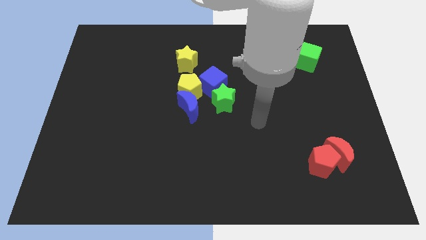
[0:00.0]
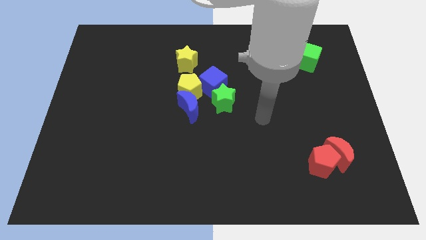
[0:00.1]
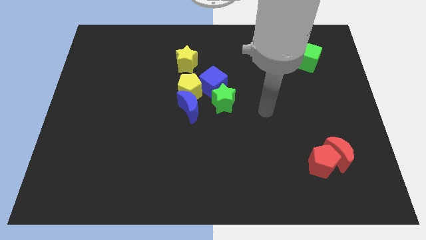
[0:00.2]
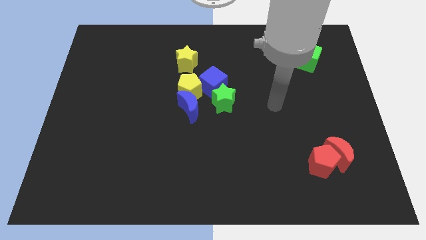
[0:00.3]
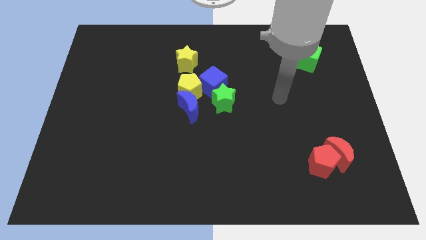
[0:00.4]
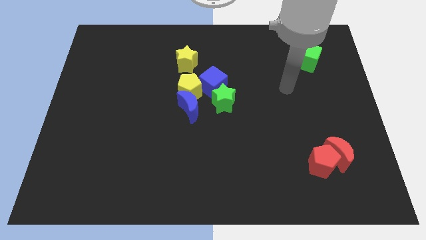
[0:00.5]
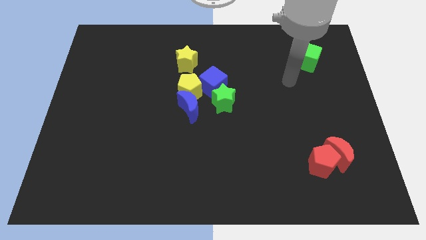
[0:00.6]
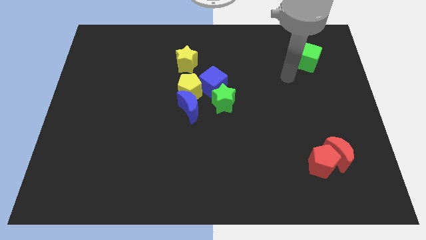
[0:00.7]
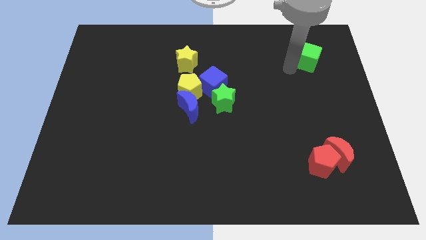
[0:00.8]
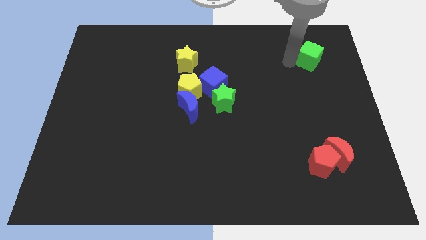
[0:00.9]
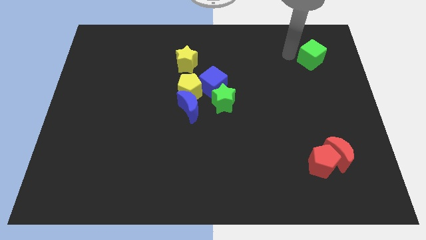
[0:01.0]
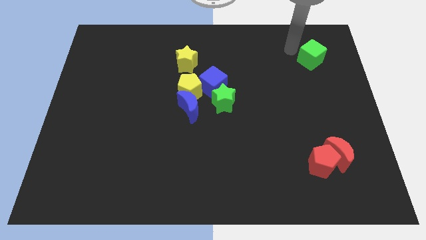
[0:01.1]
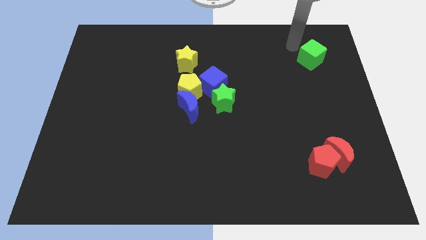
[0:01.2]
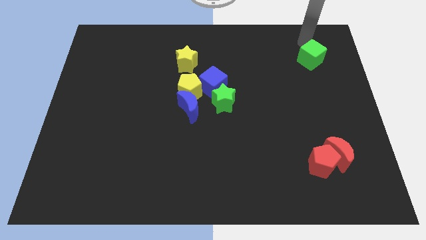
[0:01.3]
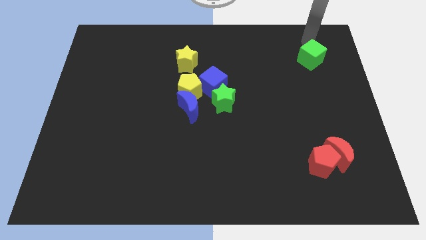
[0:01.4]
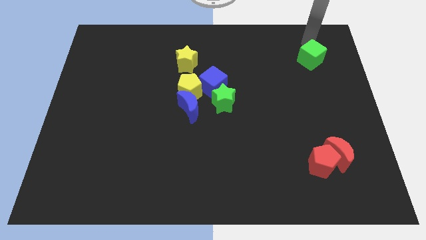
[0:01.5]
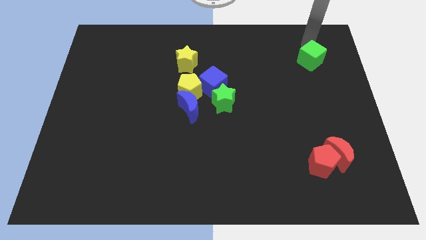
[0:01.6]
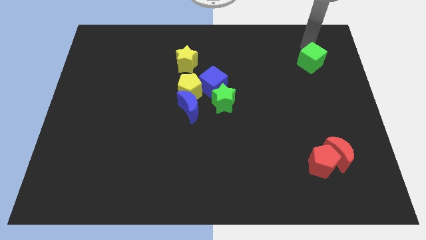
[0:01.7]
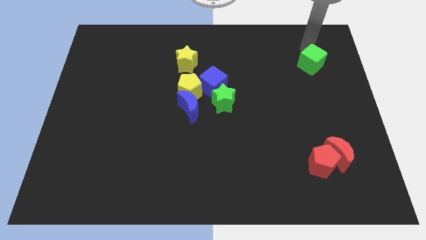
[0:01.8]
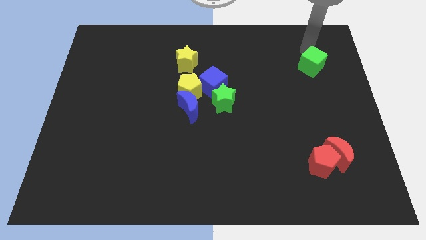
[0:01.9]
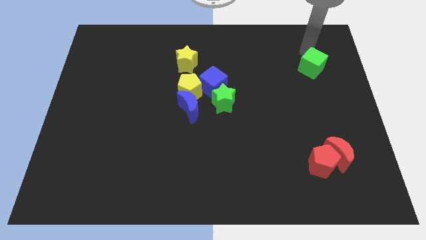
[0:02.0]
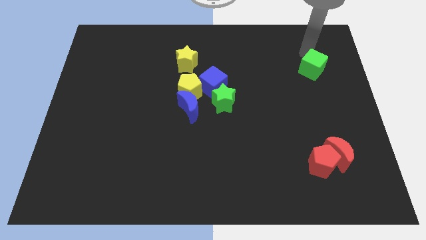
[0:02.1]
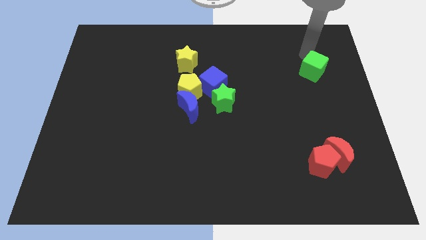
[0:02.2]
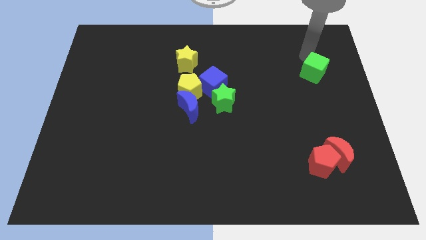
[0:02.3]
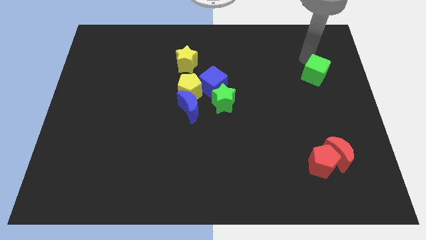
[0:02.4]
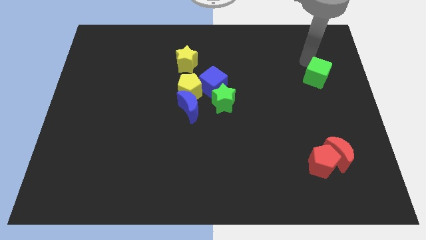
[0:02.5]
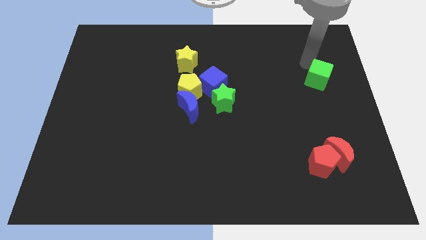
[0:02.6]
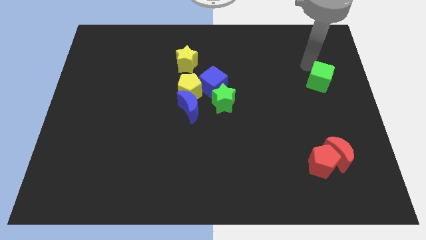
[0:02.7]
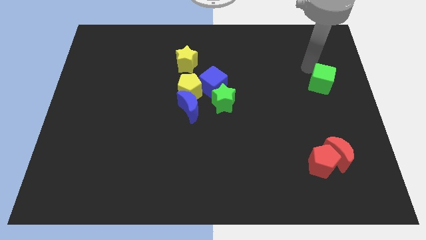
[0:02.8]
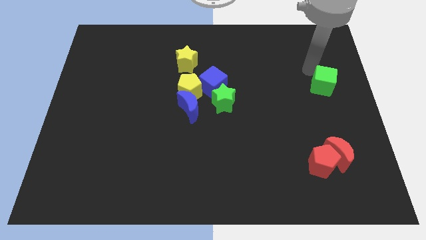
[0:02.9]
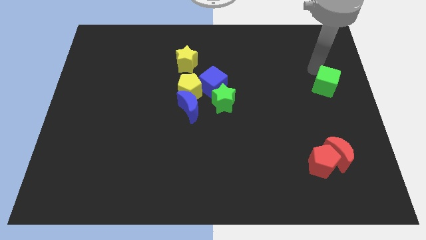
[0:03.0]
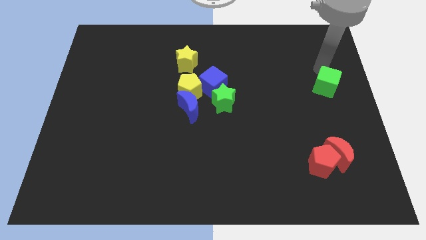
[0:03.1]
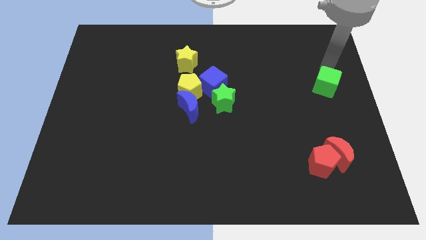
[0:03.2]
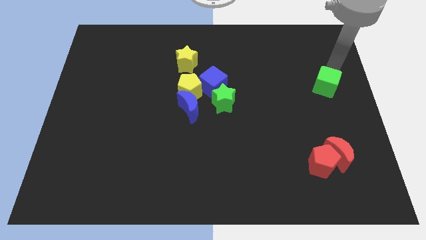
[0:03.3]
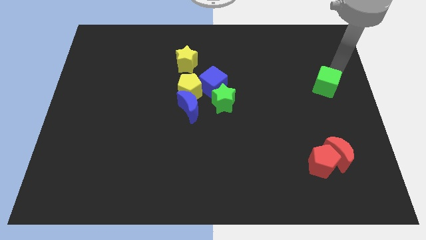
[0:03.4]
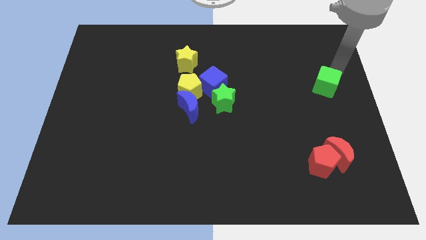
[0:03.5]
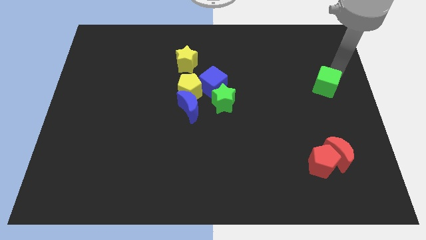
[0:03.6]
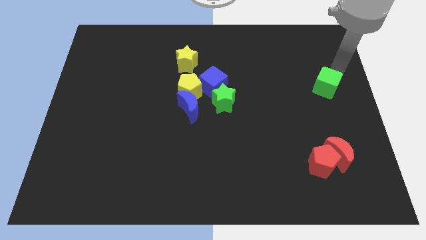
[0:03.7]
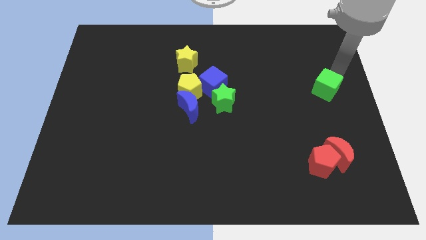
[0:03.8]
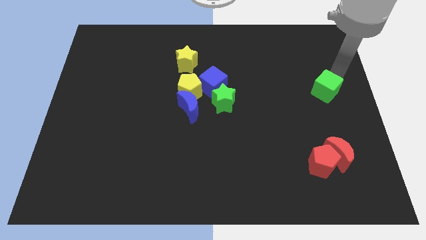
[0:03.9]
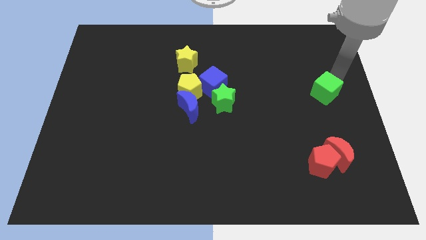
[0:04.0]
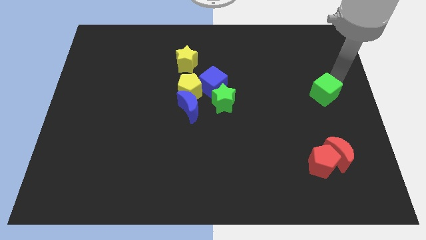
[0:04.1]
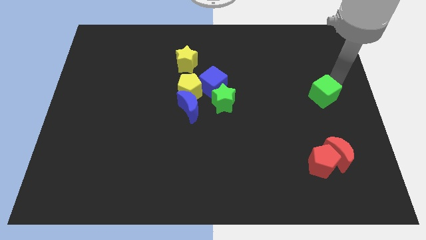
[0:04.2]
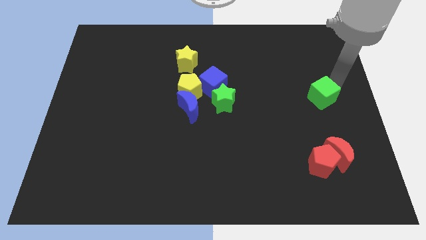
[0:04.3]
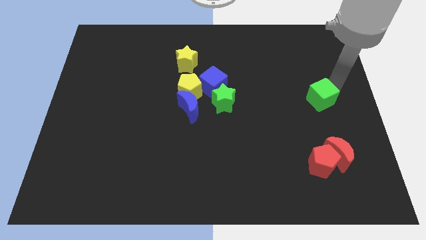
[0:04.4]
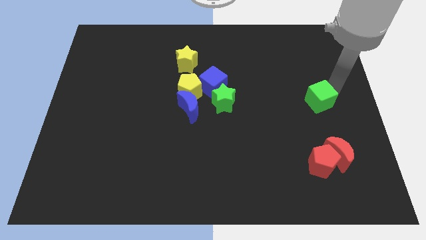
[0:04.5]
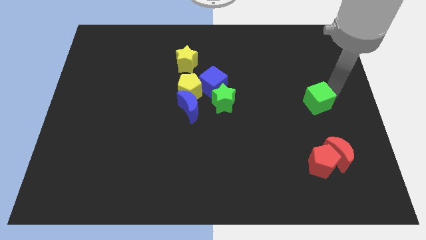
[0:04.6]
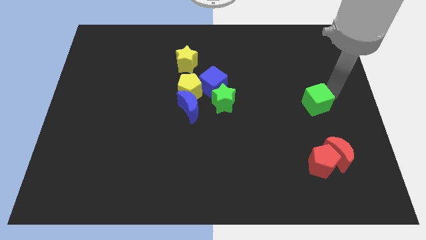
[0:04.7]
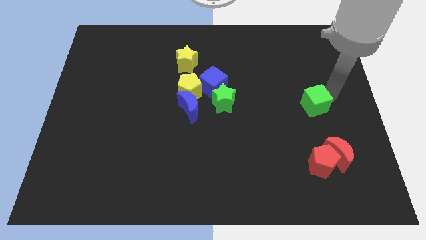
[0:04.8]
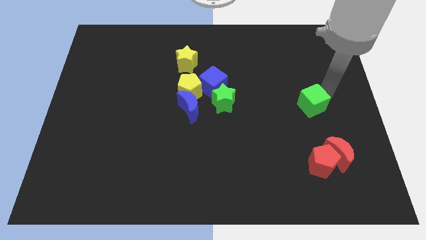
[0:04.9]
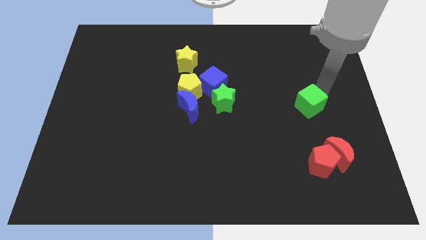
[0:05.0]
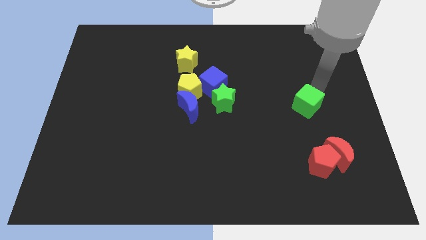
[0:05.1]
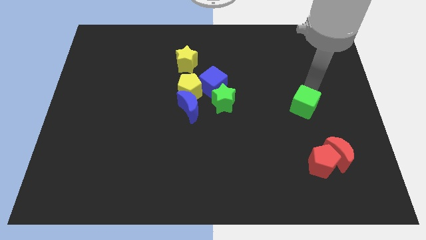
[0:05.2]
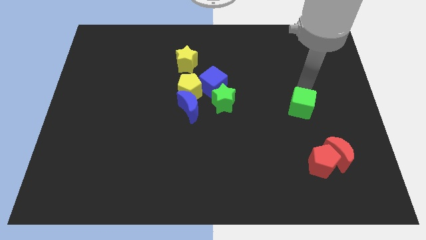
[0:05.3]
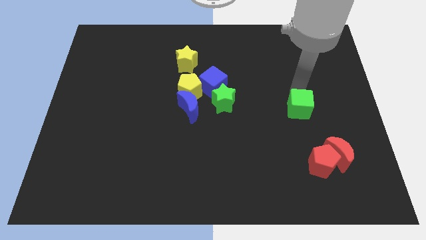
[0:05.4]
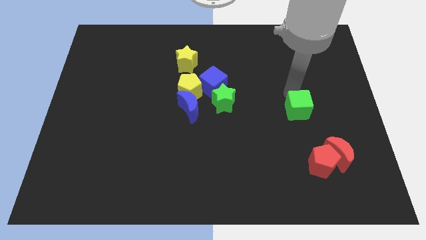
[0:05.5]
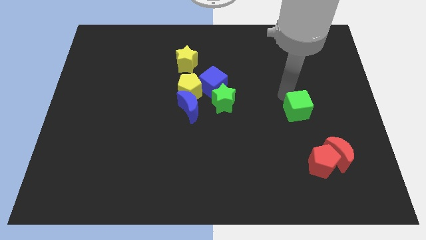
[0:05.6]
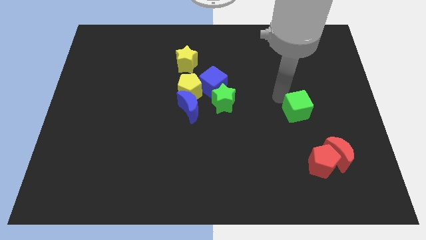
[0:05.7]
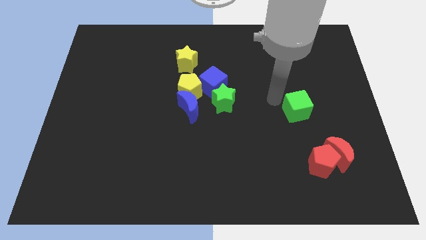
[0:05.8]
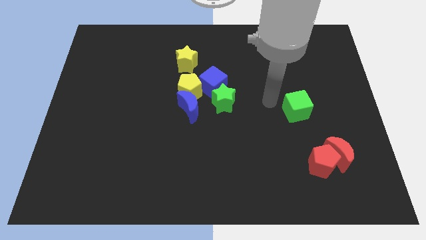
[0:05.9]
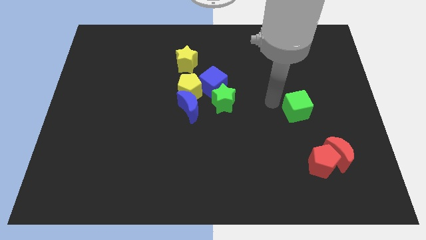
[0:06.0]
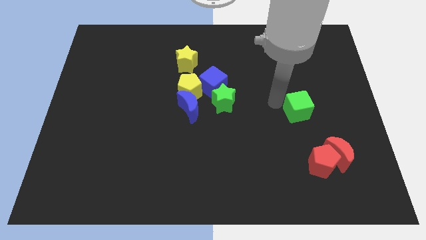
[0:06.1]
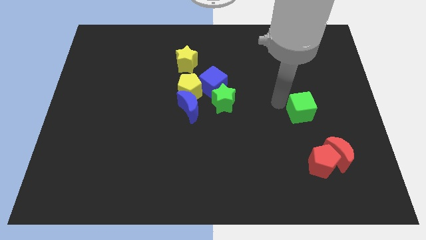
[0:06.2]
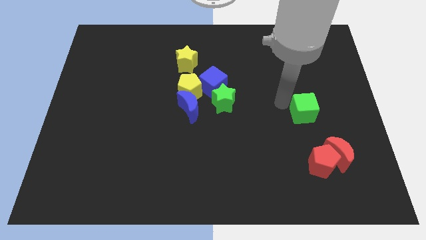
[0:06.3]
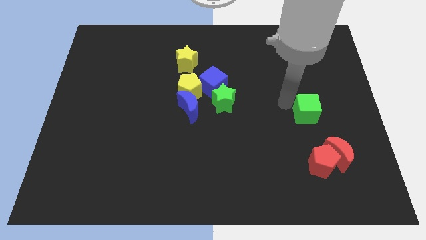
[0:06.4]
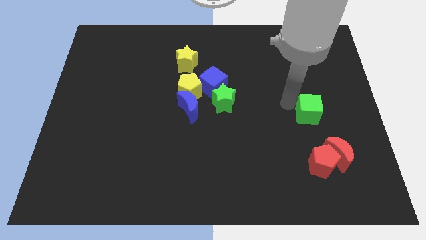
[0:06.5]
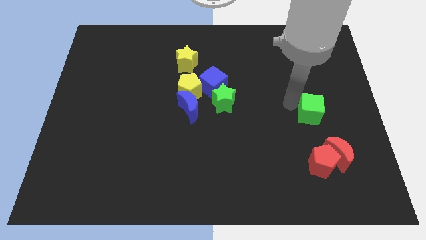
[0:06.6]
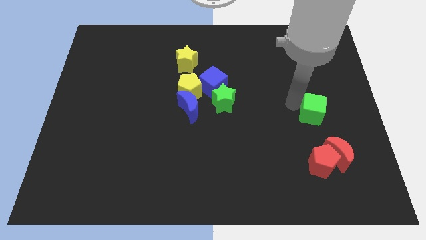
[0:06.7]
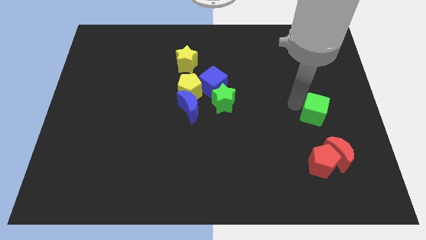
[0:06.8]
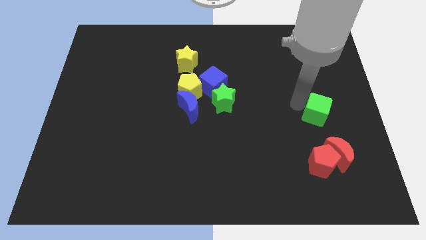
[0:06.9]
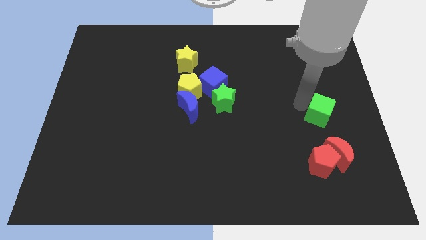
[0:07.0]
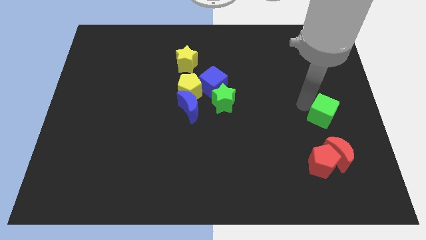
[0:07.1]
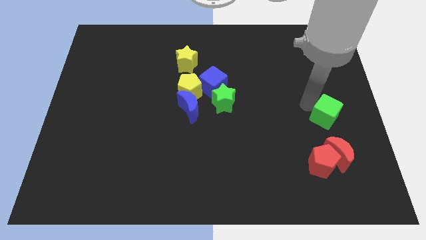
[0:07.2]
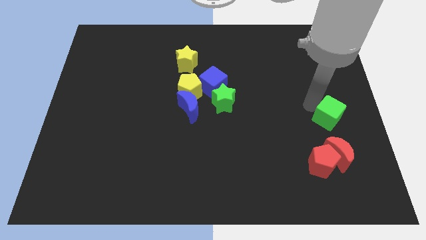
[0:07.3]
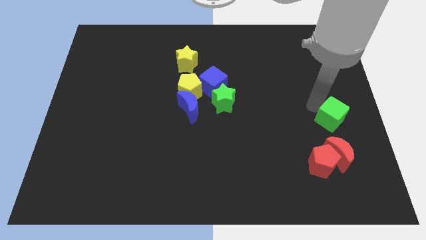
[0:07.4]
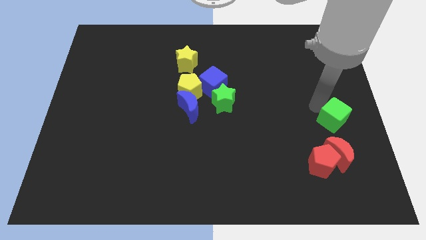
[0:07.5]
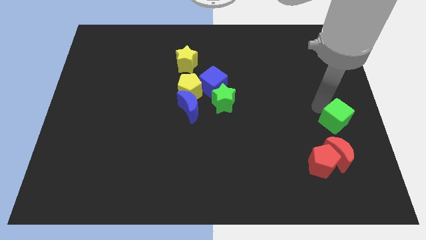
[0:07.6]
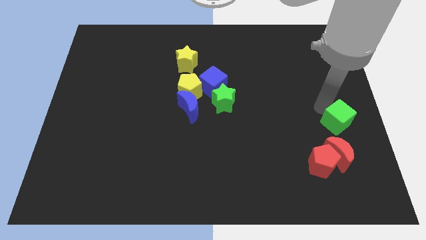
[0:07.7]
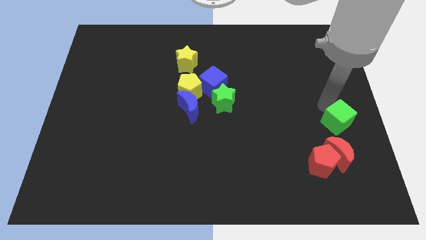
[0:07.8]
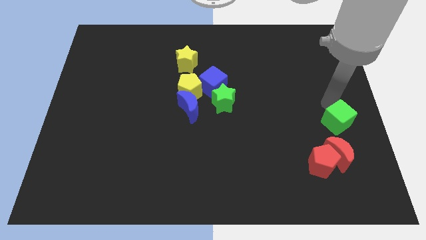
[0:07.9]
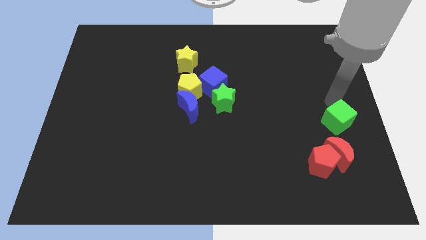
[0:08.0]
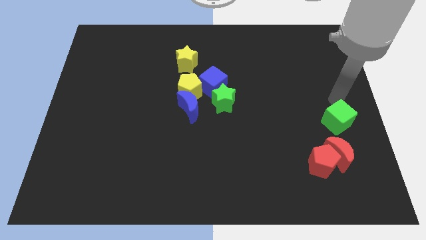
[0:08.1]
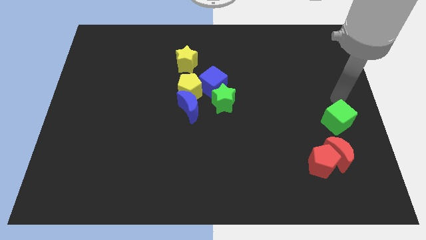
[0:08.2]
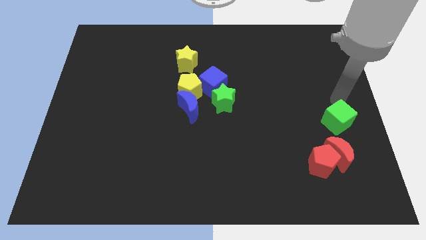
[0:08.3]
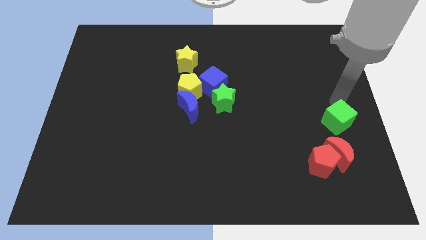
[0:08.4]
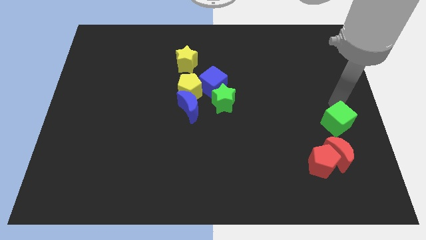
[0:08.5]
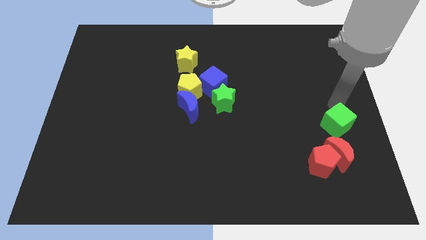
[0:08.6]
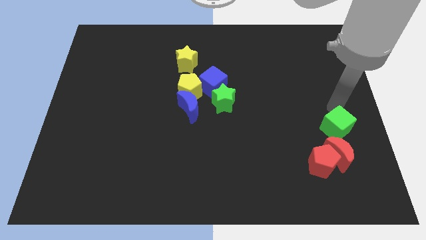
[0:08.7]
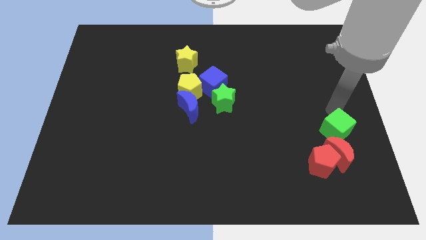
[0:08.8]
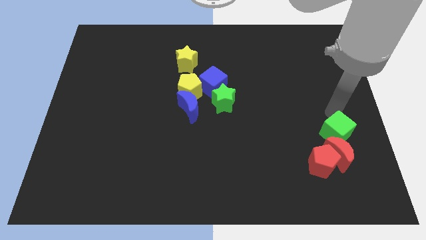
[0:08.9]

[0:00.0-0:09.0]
push the green cube to the red moon
